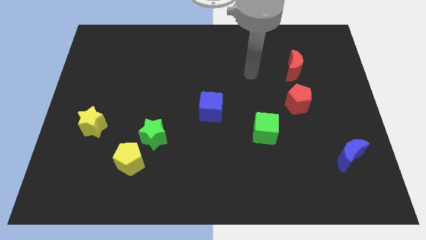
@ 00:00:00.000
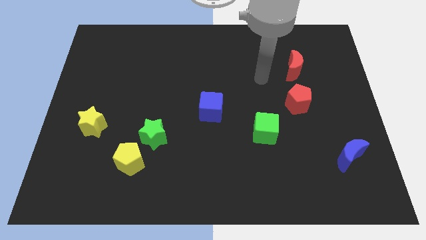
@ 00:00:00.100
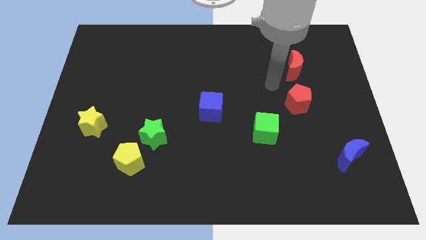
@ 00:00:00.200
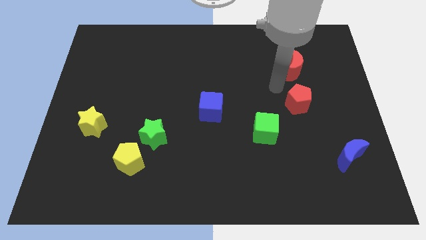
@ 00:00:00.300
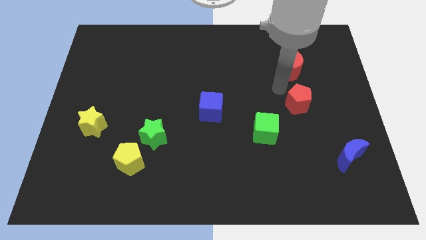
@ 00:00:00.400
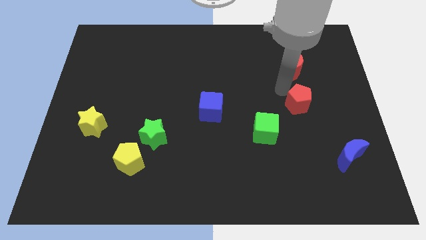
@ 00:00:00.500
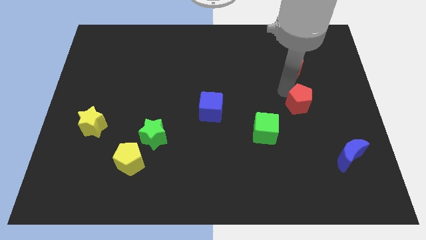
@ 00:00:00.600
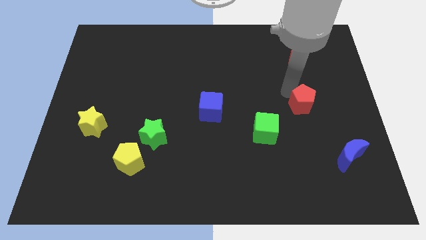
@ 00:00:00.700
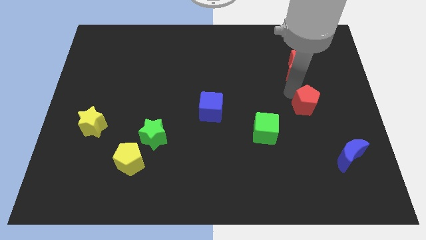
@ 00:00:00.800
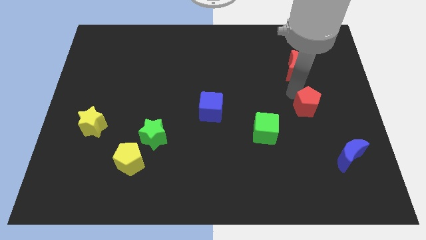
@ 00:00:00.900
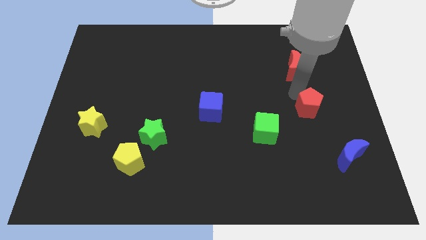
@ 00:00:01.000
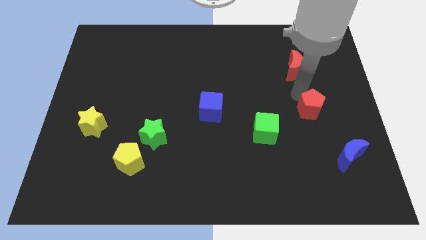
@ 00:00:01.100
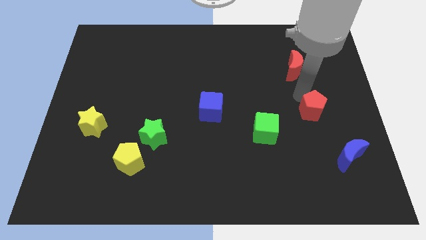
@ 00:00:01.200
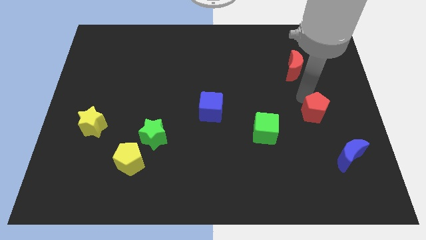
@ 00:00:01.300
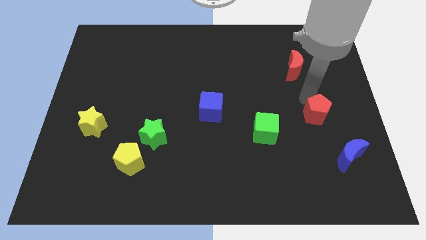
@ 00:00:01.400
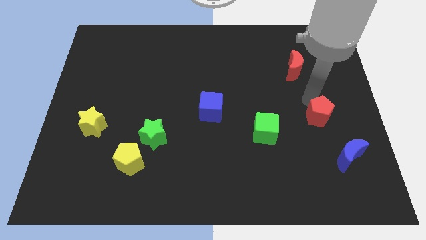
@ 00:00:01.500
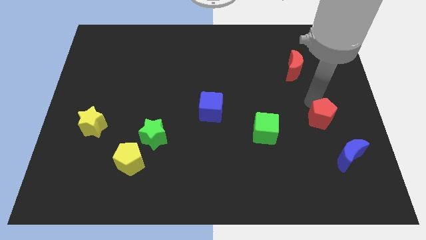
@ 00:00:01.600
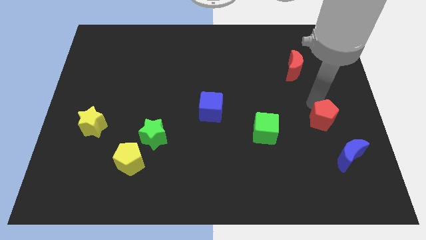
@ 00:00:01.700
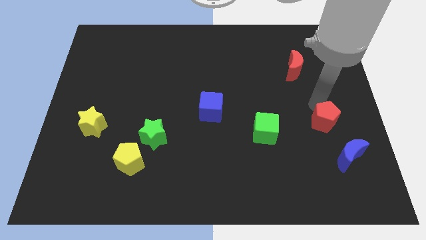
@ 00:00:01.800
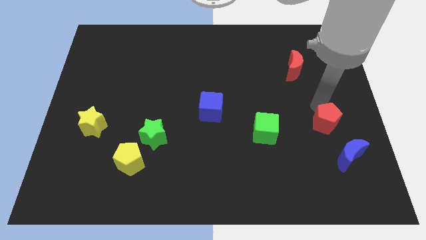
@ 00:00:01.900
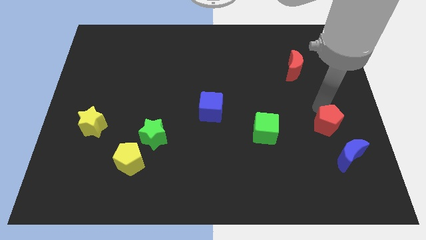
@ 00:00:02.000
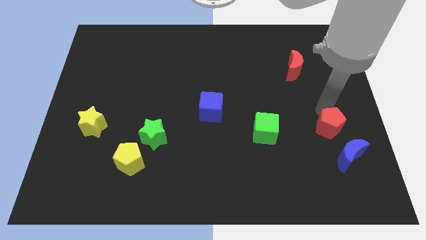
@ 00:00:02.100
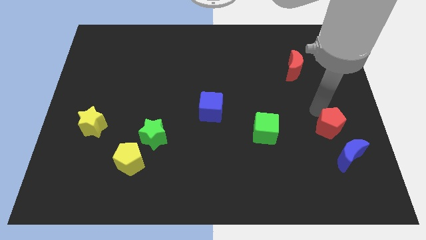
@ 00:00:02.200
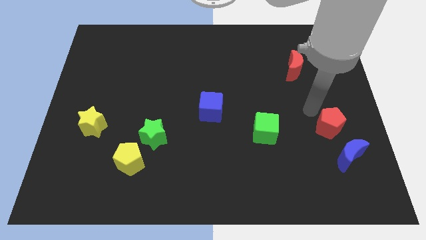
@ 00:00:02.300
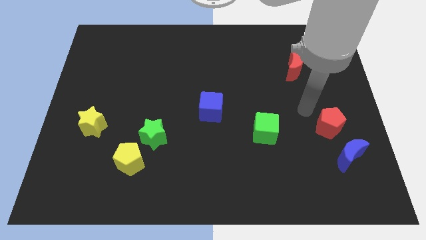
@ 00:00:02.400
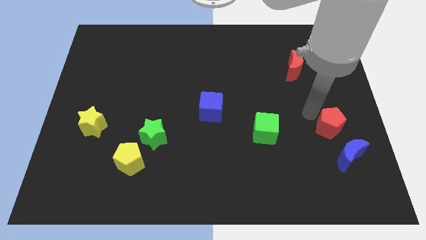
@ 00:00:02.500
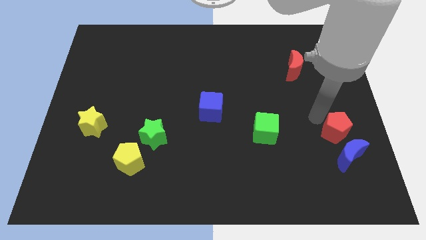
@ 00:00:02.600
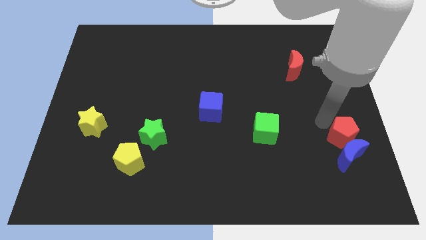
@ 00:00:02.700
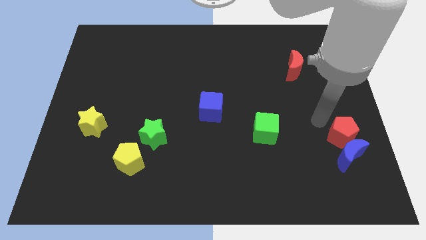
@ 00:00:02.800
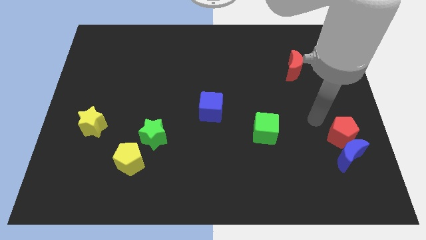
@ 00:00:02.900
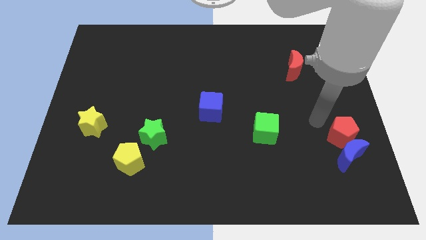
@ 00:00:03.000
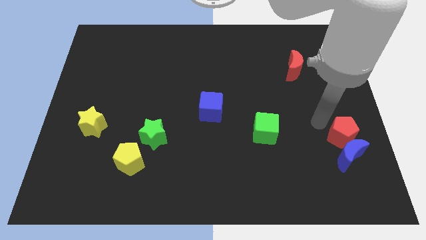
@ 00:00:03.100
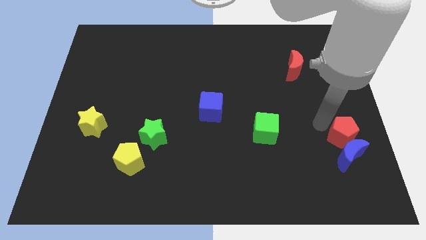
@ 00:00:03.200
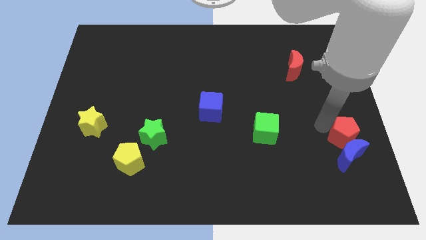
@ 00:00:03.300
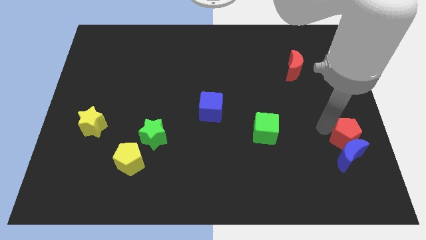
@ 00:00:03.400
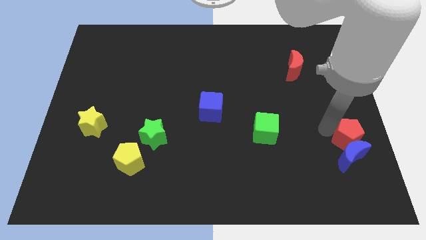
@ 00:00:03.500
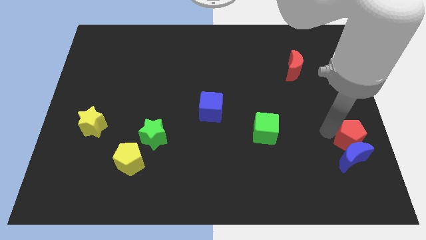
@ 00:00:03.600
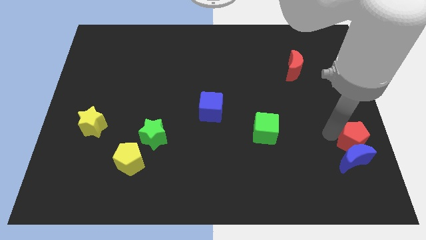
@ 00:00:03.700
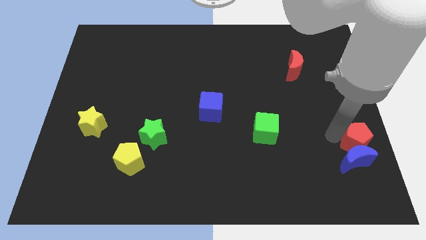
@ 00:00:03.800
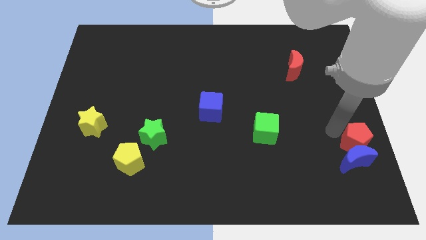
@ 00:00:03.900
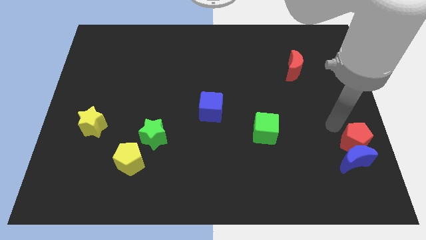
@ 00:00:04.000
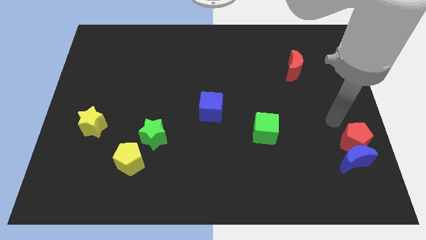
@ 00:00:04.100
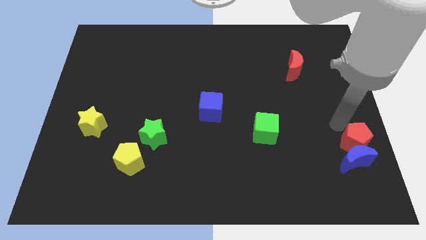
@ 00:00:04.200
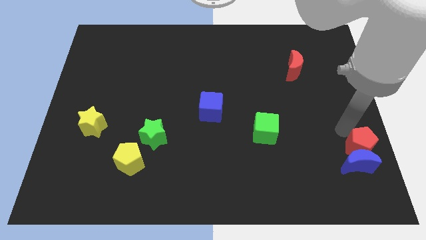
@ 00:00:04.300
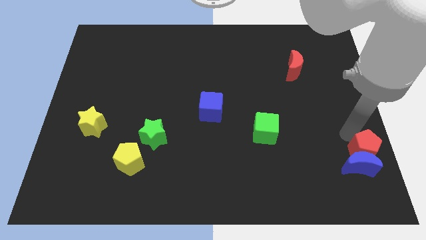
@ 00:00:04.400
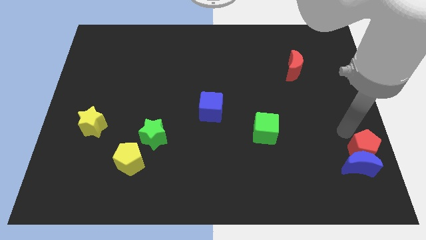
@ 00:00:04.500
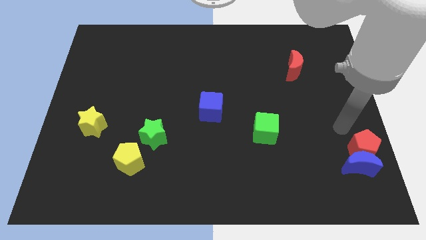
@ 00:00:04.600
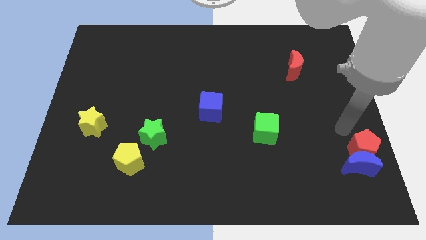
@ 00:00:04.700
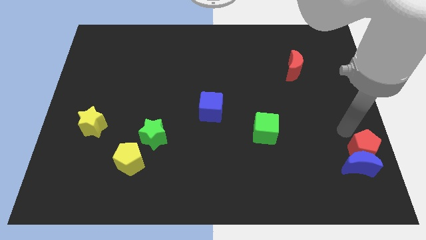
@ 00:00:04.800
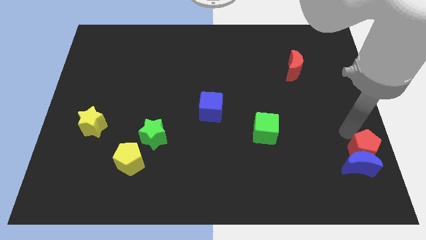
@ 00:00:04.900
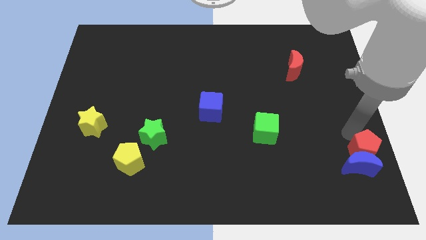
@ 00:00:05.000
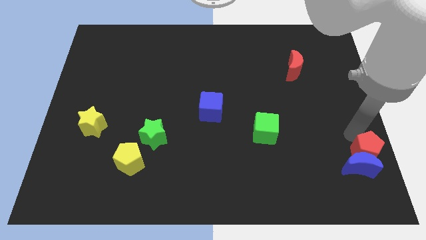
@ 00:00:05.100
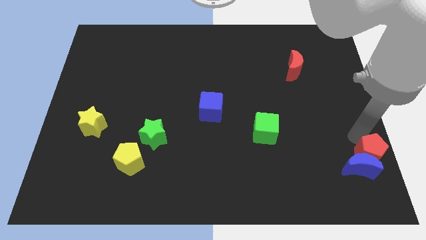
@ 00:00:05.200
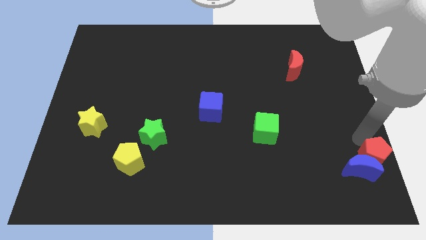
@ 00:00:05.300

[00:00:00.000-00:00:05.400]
put the red pentagon to the bottom right corner

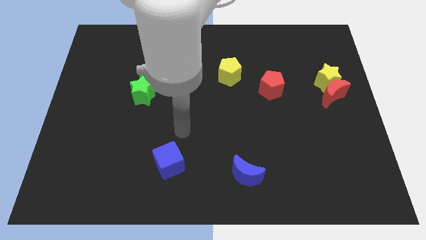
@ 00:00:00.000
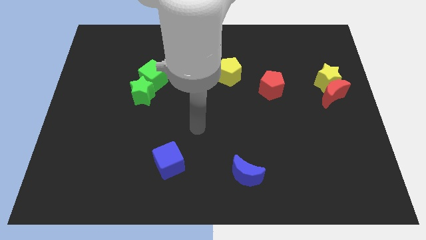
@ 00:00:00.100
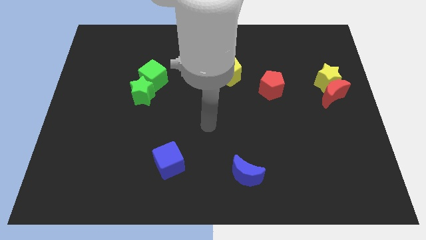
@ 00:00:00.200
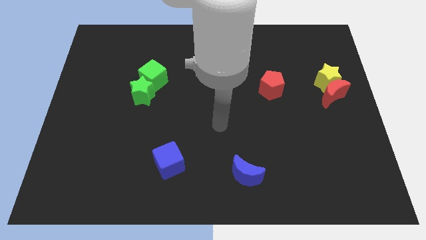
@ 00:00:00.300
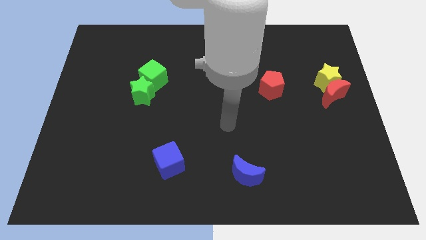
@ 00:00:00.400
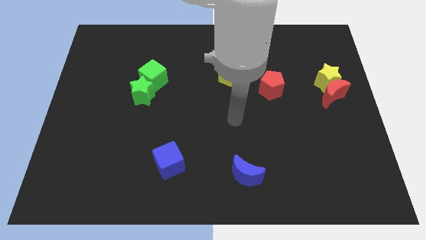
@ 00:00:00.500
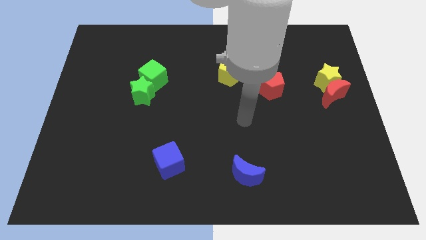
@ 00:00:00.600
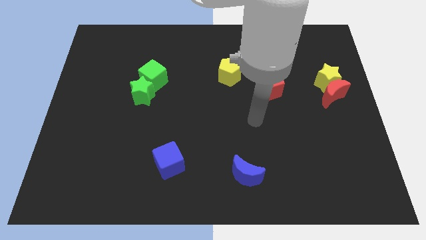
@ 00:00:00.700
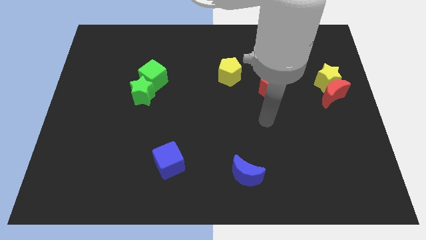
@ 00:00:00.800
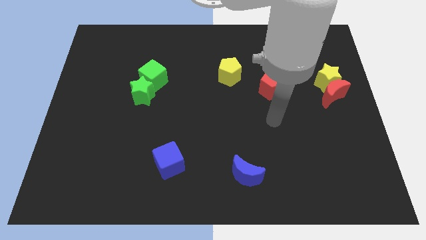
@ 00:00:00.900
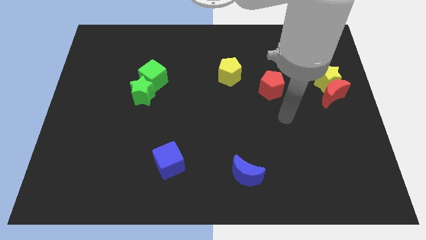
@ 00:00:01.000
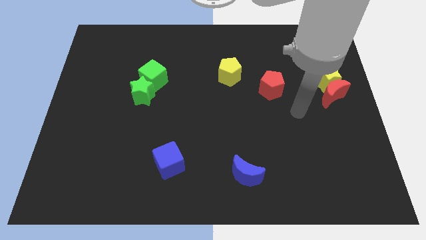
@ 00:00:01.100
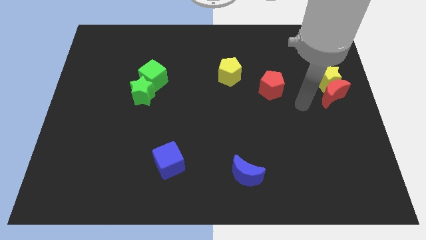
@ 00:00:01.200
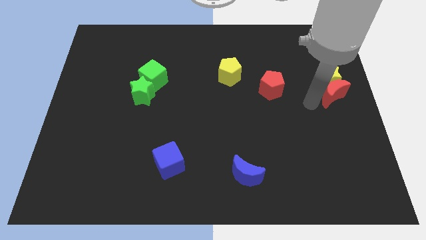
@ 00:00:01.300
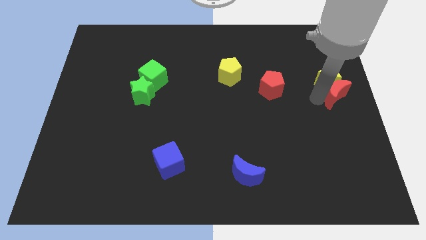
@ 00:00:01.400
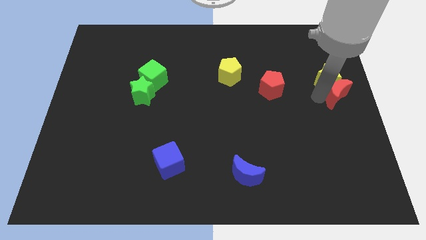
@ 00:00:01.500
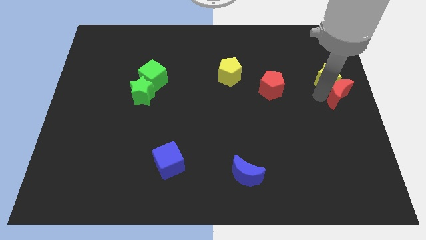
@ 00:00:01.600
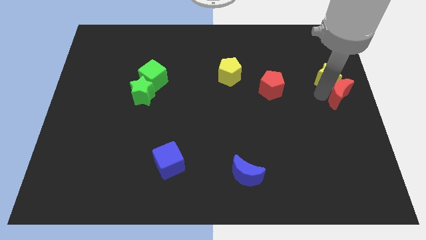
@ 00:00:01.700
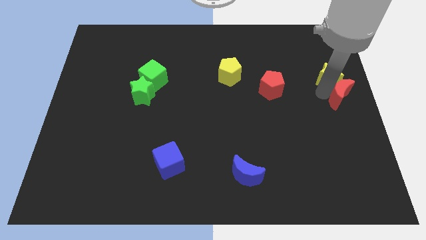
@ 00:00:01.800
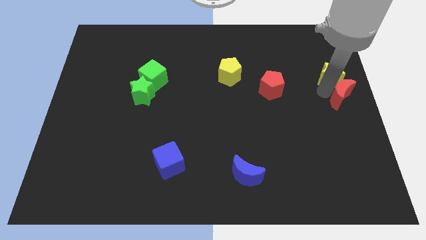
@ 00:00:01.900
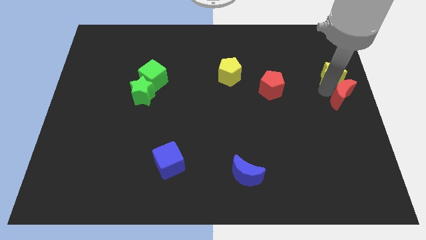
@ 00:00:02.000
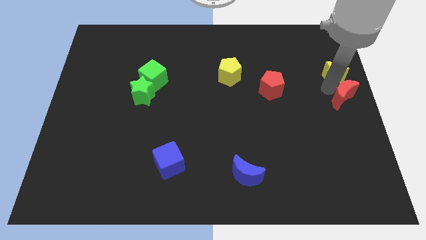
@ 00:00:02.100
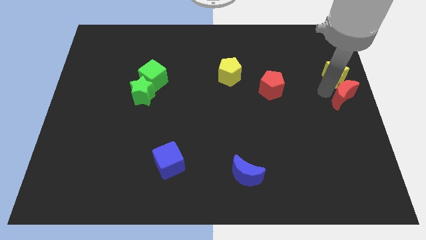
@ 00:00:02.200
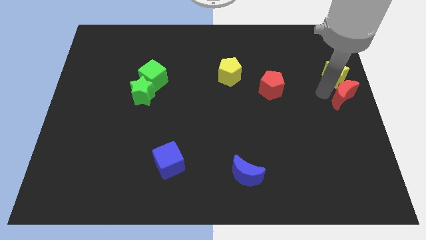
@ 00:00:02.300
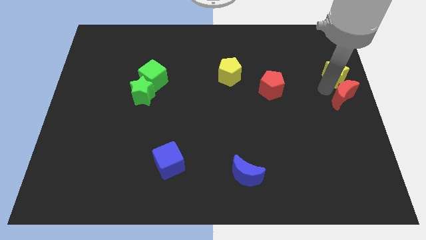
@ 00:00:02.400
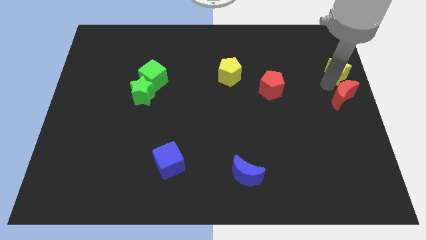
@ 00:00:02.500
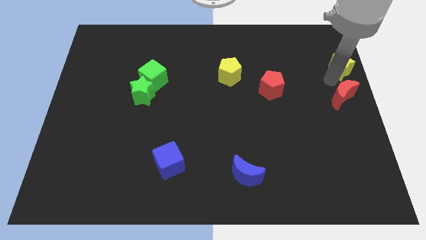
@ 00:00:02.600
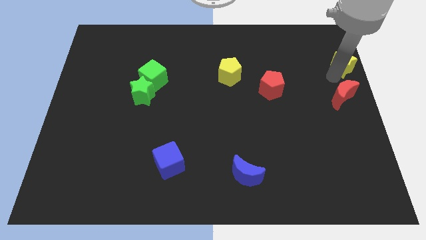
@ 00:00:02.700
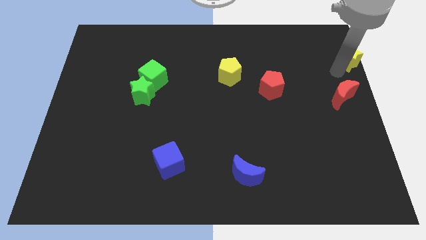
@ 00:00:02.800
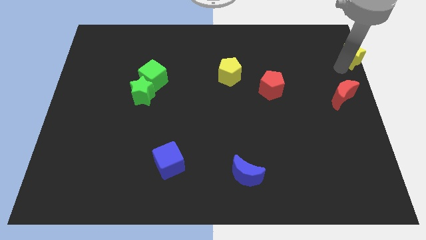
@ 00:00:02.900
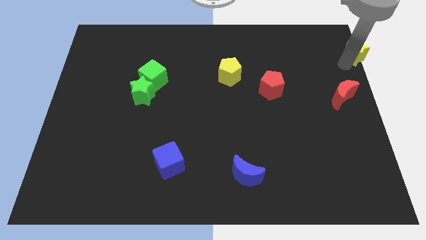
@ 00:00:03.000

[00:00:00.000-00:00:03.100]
move the yellow star to the upper right corner
